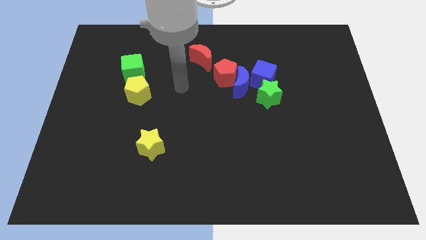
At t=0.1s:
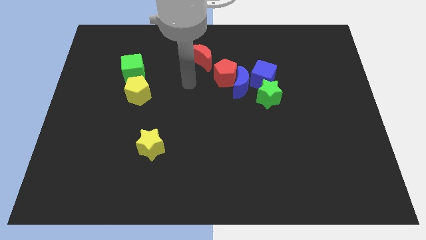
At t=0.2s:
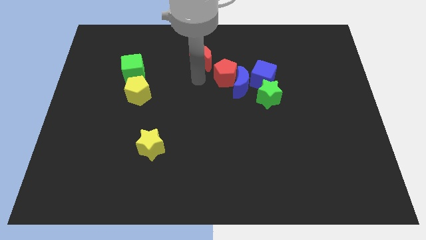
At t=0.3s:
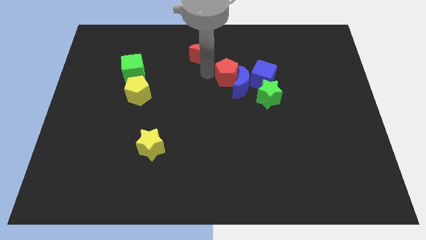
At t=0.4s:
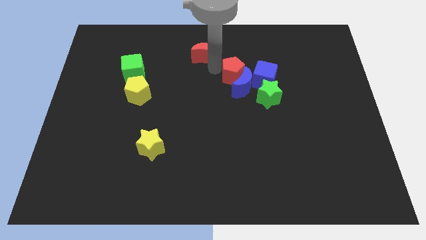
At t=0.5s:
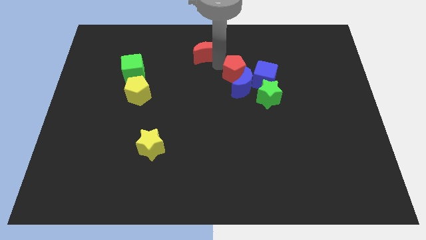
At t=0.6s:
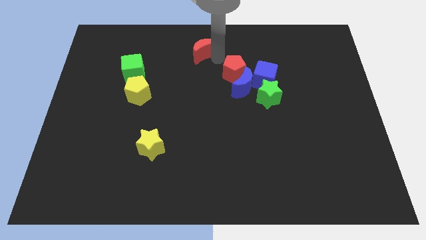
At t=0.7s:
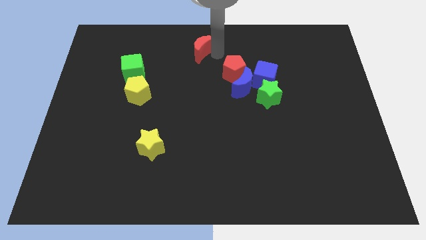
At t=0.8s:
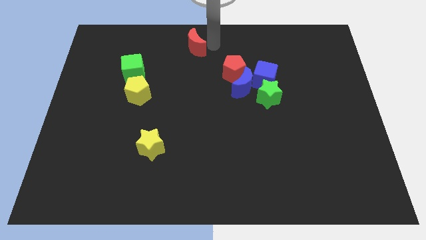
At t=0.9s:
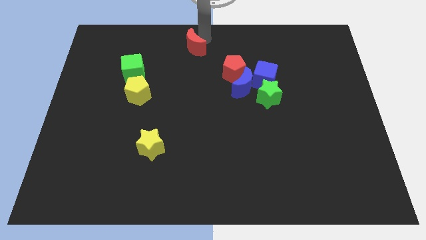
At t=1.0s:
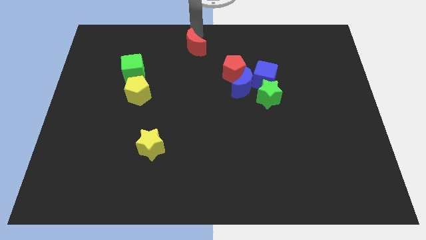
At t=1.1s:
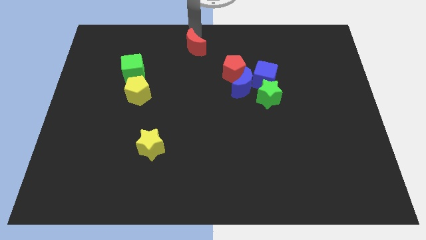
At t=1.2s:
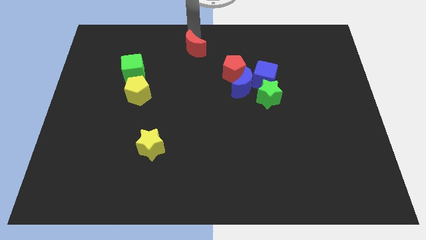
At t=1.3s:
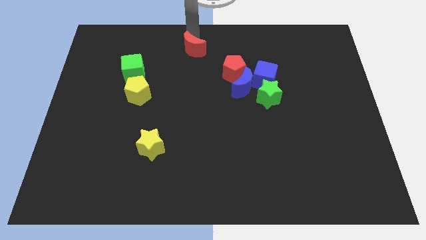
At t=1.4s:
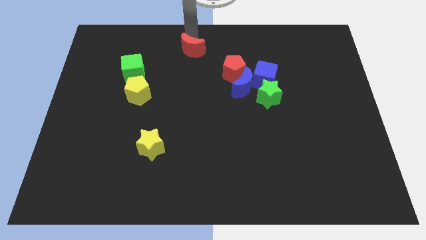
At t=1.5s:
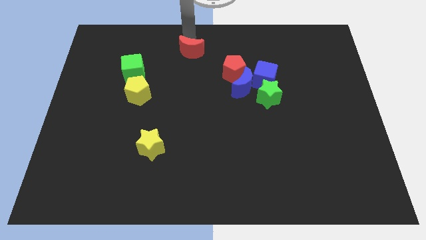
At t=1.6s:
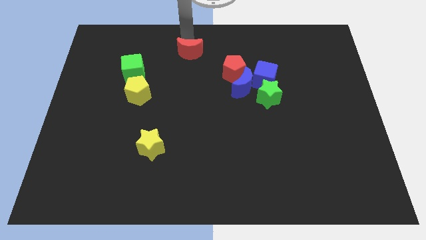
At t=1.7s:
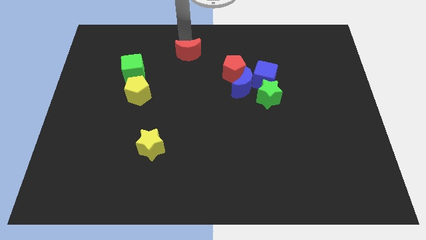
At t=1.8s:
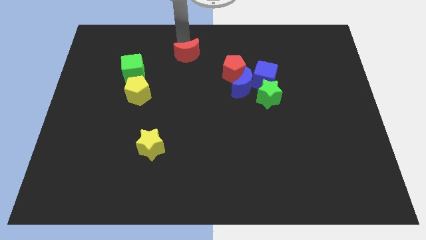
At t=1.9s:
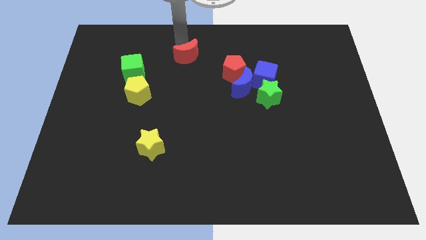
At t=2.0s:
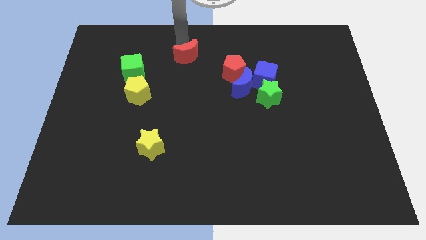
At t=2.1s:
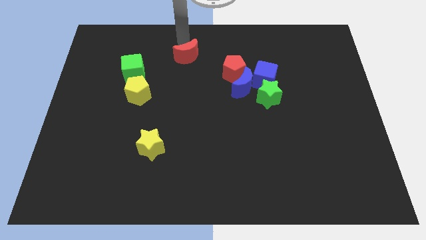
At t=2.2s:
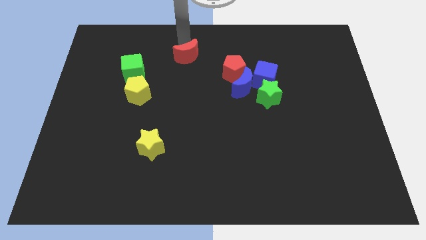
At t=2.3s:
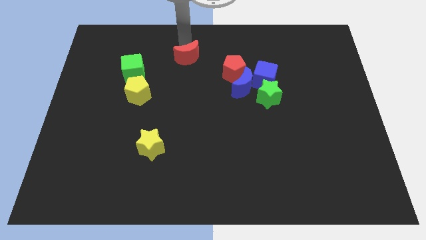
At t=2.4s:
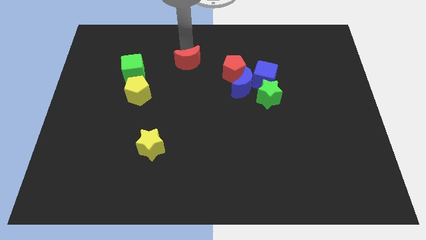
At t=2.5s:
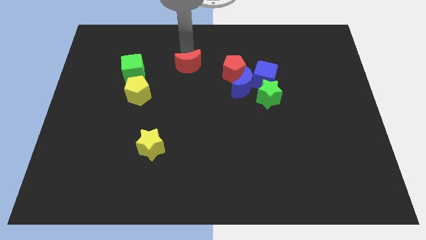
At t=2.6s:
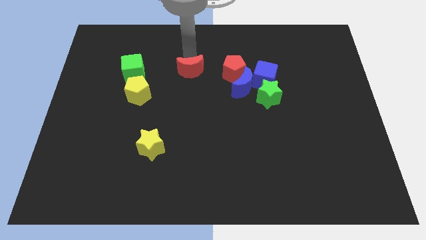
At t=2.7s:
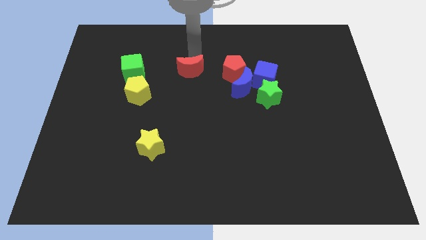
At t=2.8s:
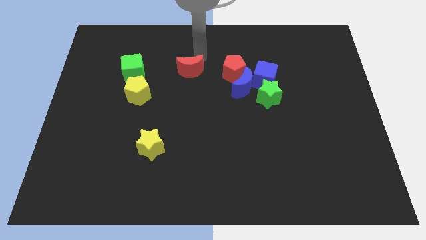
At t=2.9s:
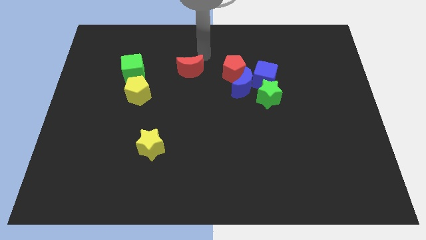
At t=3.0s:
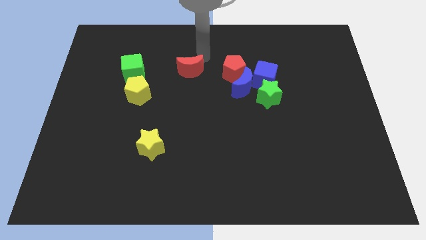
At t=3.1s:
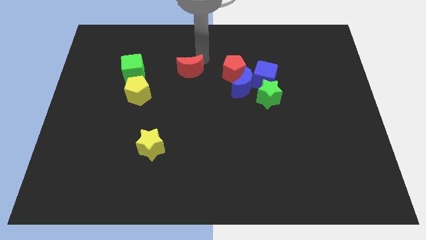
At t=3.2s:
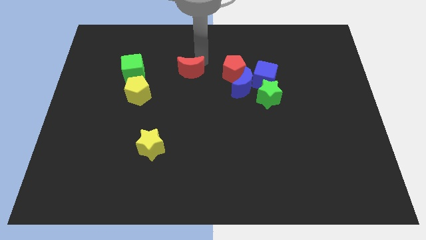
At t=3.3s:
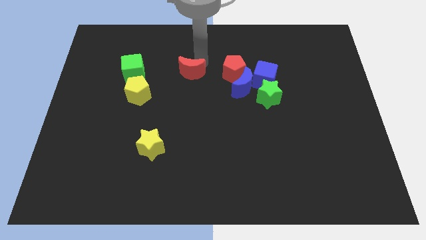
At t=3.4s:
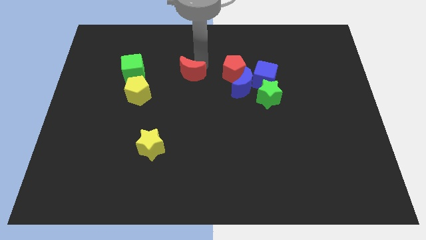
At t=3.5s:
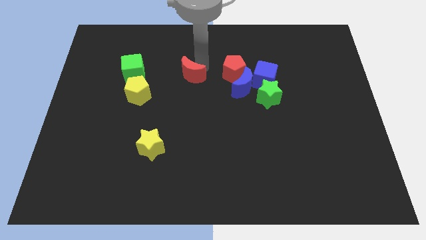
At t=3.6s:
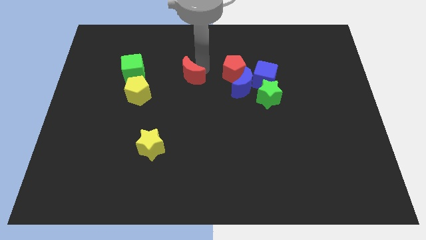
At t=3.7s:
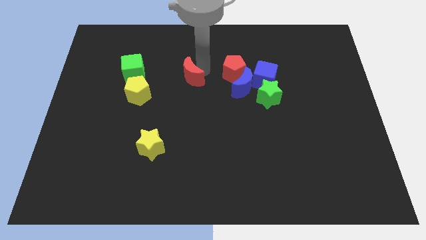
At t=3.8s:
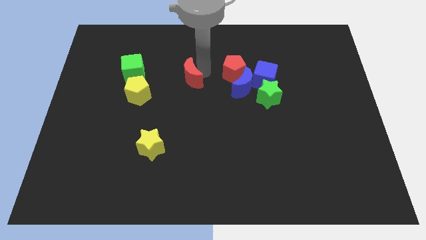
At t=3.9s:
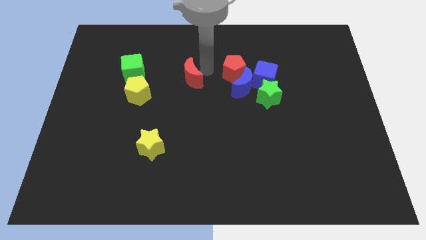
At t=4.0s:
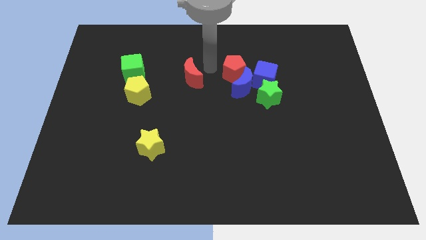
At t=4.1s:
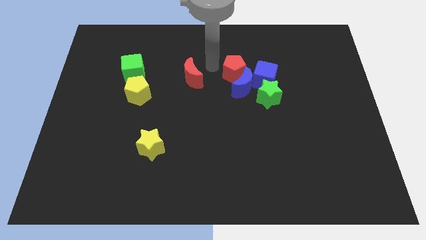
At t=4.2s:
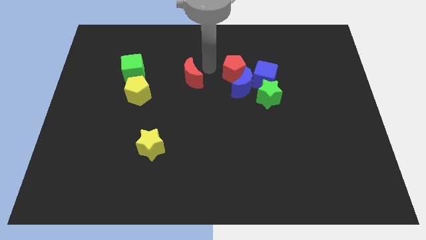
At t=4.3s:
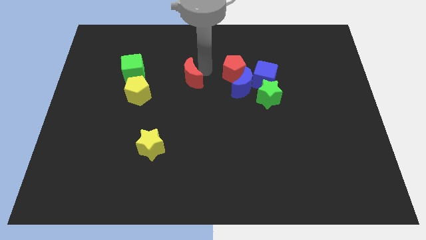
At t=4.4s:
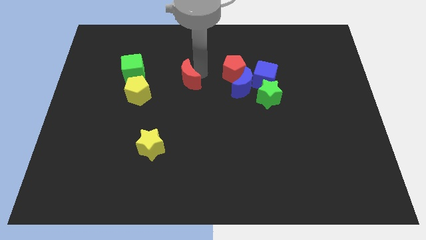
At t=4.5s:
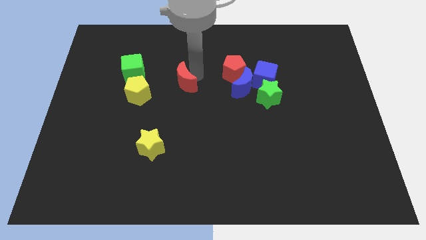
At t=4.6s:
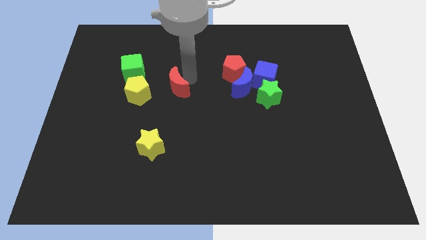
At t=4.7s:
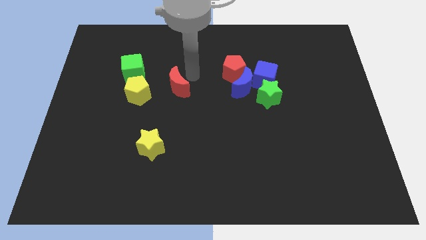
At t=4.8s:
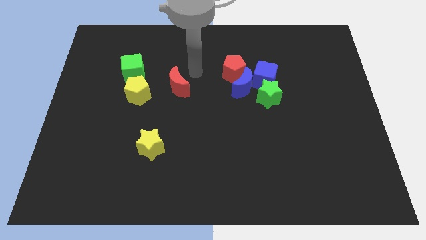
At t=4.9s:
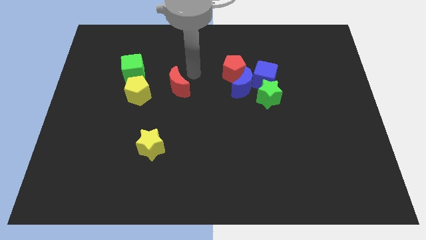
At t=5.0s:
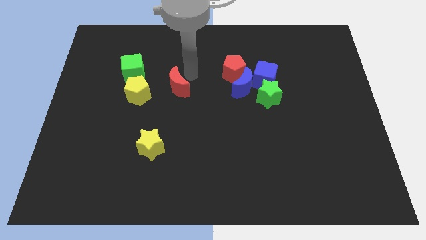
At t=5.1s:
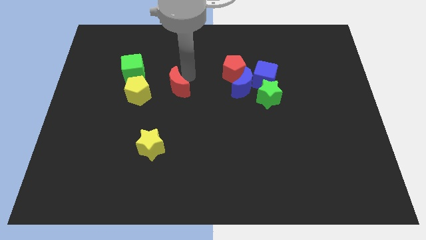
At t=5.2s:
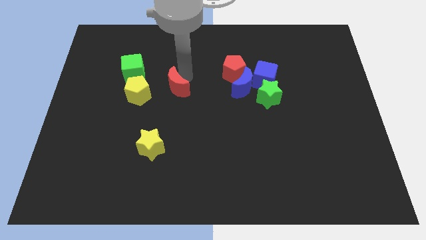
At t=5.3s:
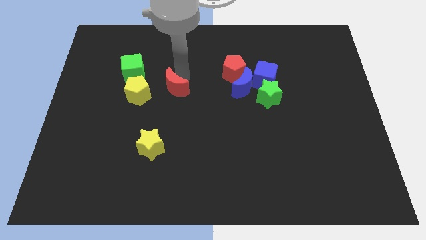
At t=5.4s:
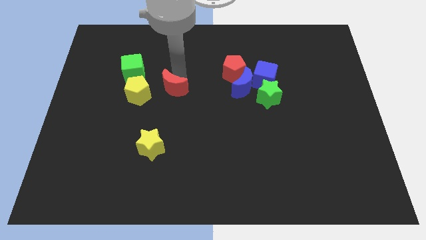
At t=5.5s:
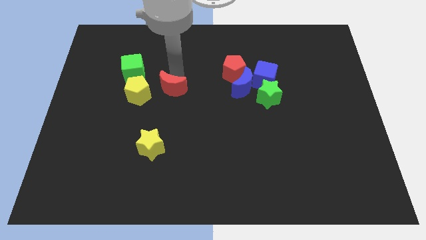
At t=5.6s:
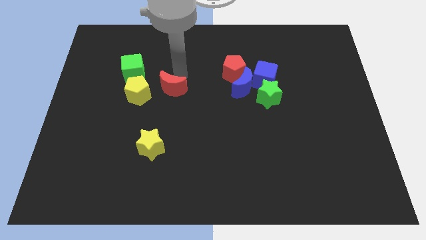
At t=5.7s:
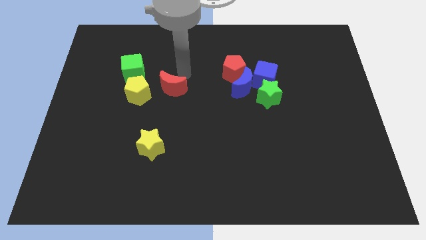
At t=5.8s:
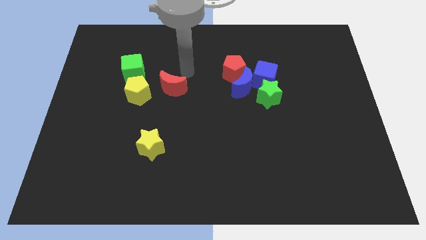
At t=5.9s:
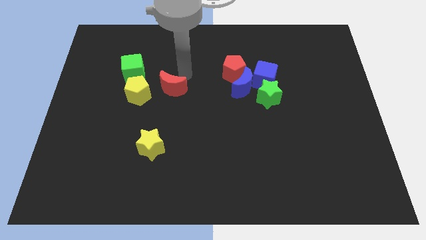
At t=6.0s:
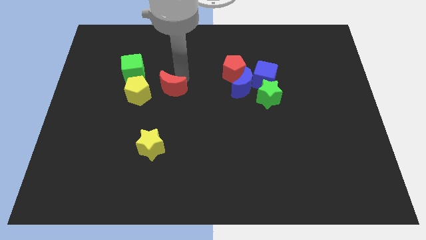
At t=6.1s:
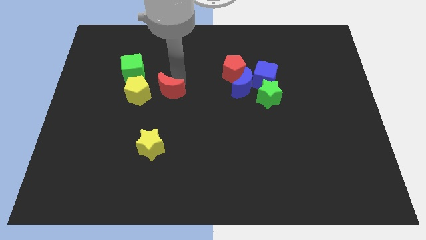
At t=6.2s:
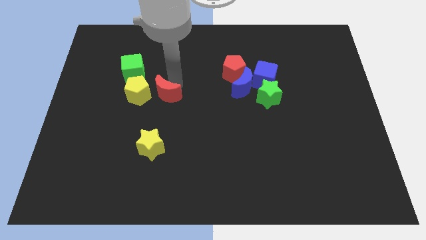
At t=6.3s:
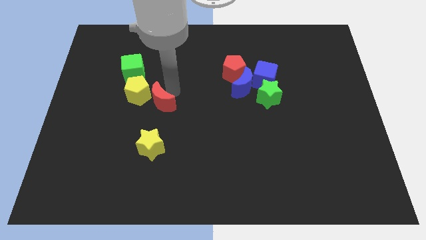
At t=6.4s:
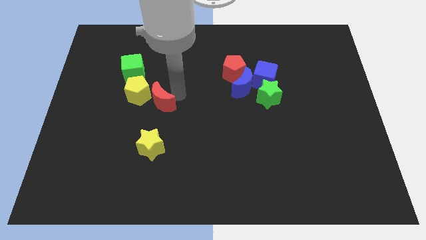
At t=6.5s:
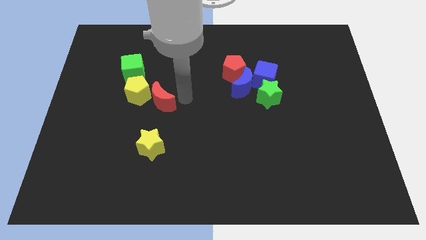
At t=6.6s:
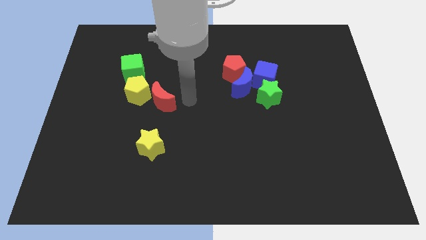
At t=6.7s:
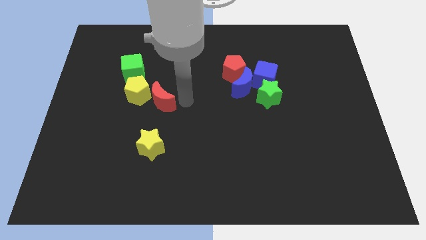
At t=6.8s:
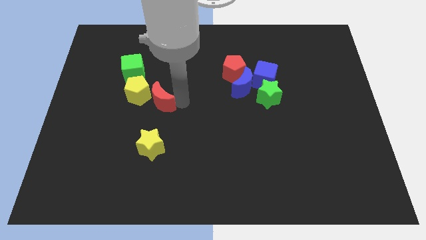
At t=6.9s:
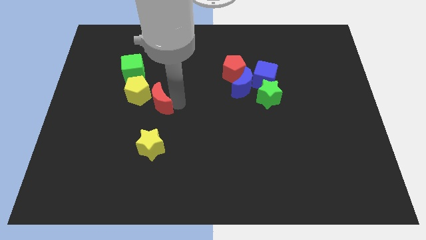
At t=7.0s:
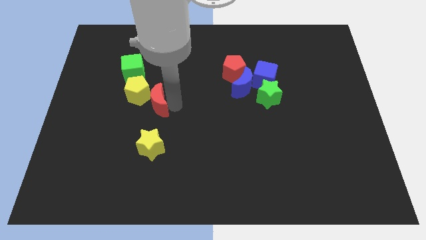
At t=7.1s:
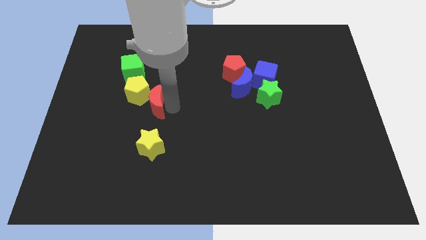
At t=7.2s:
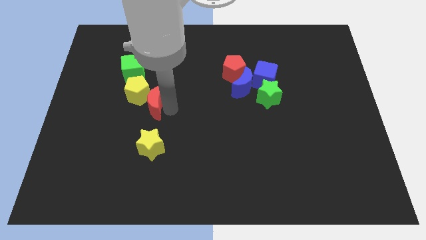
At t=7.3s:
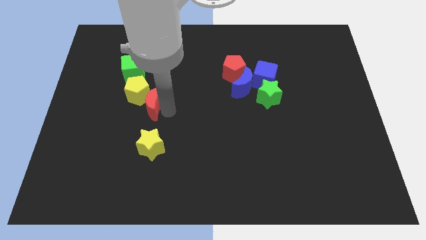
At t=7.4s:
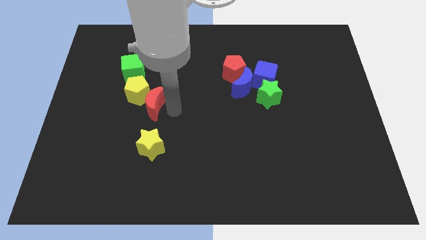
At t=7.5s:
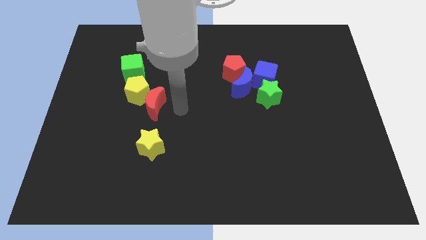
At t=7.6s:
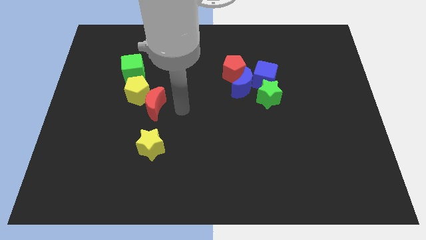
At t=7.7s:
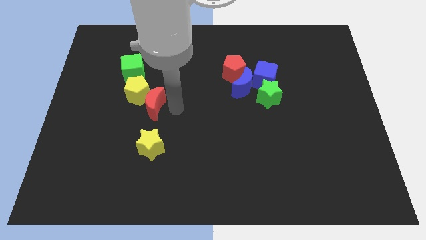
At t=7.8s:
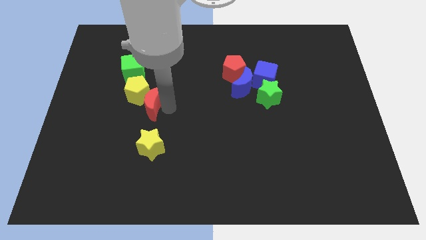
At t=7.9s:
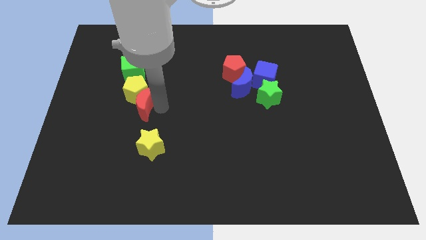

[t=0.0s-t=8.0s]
move the red moon to the bottom side of the green cube
